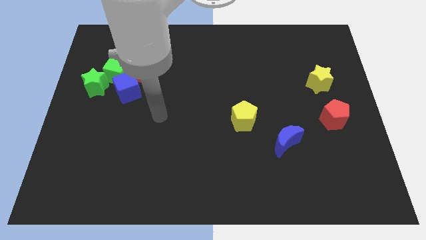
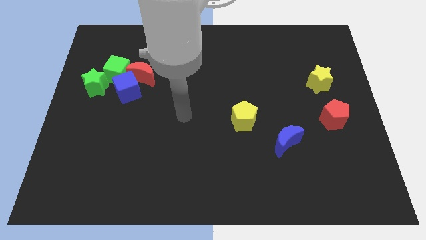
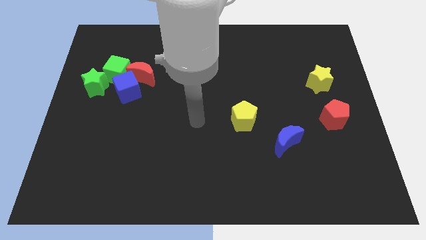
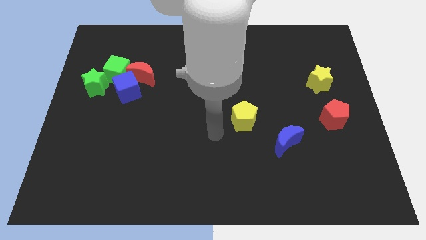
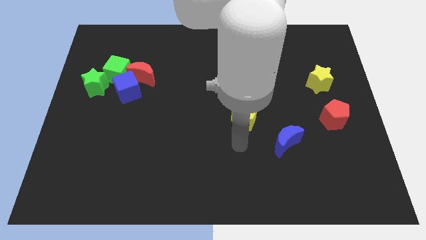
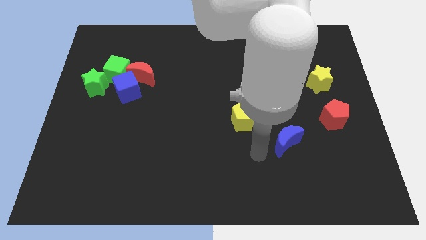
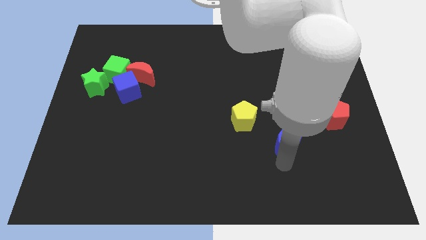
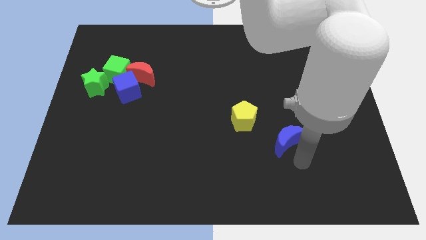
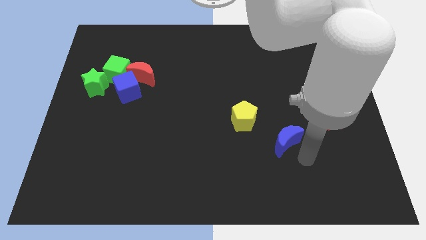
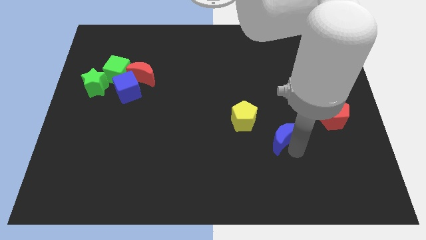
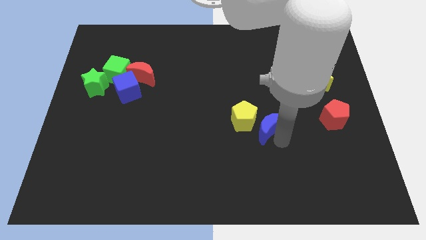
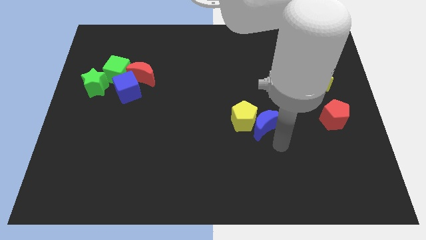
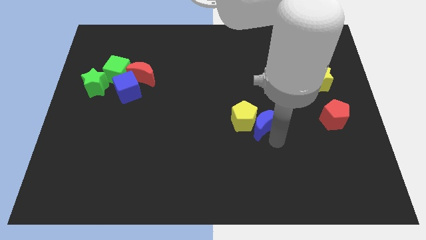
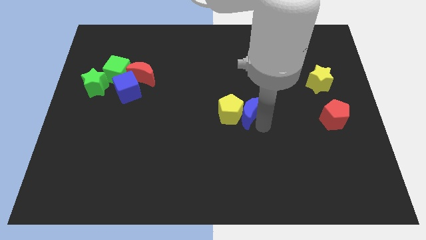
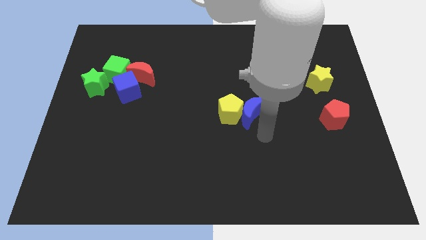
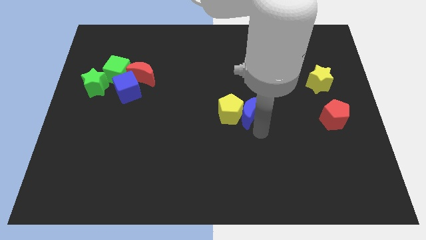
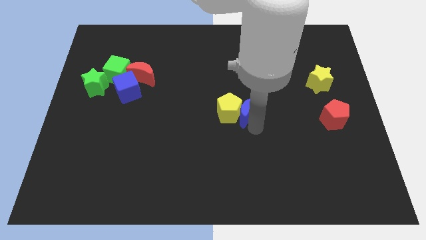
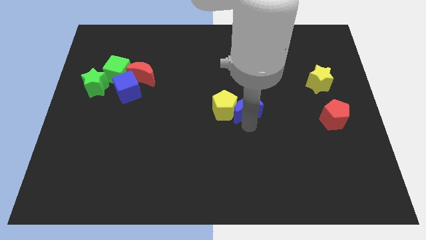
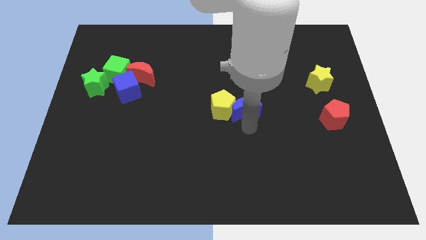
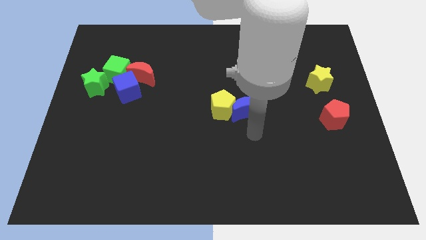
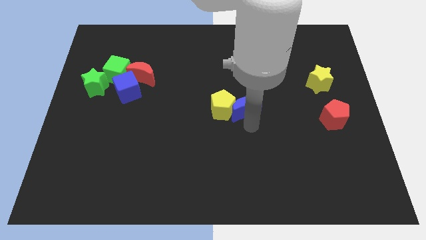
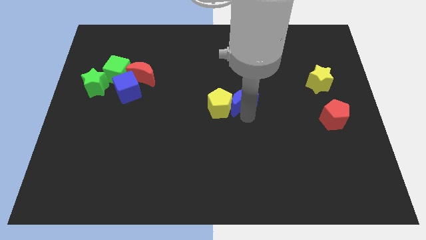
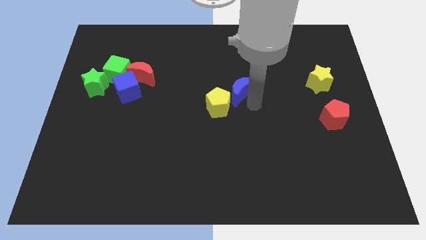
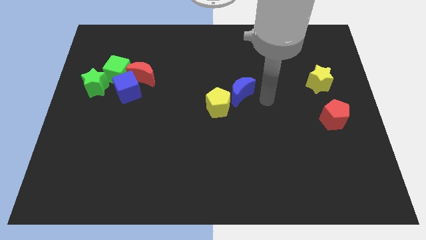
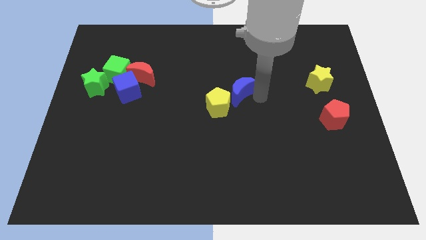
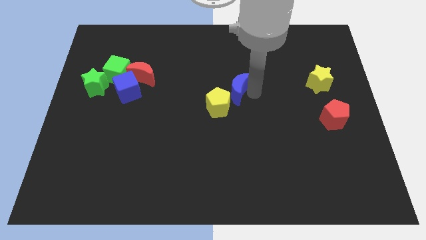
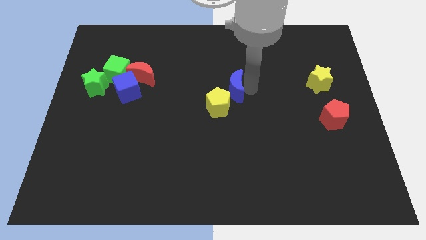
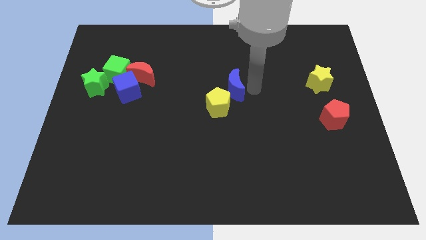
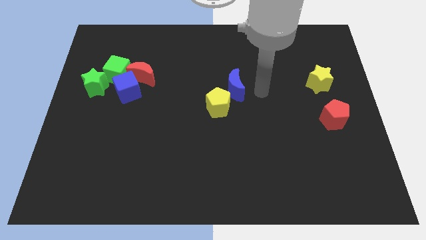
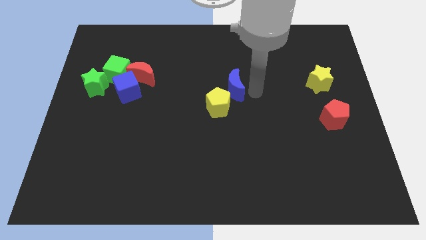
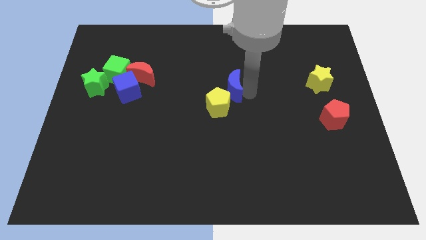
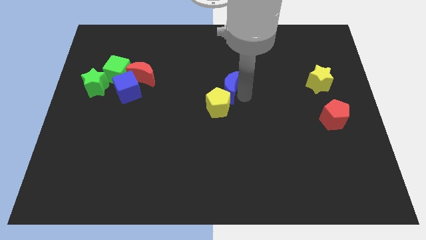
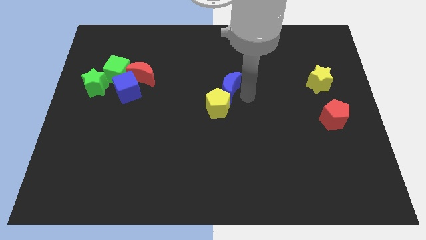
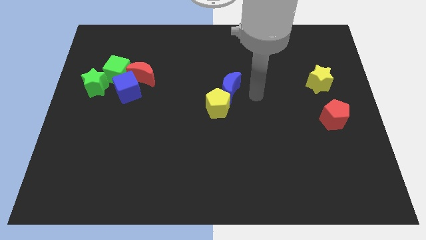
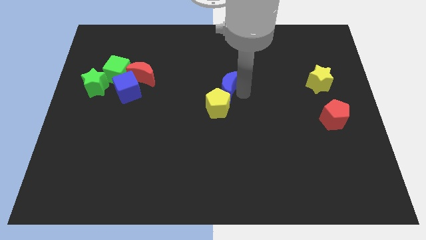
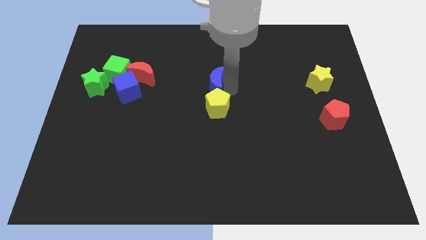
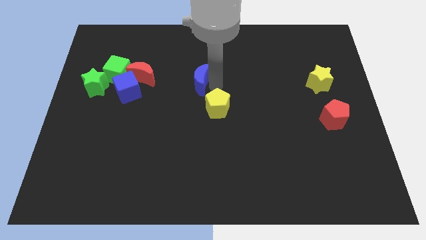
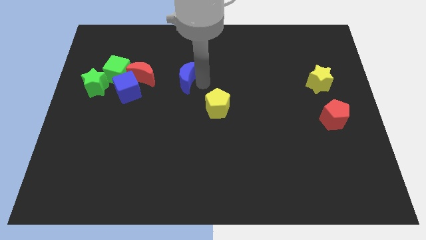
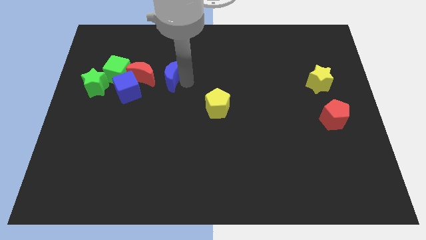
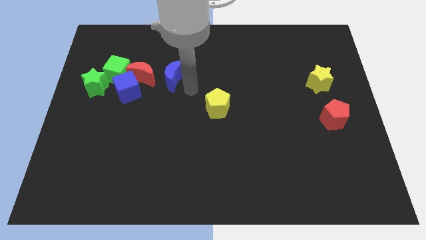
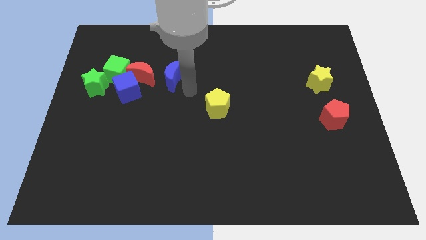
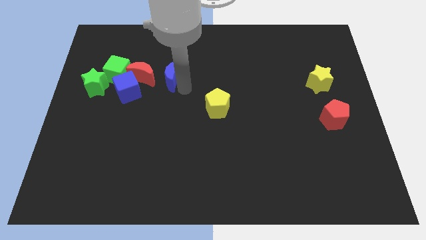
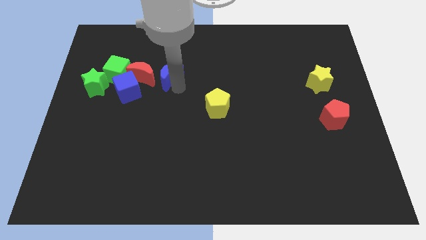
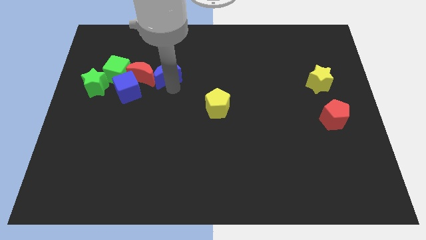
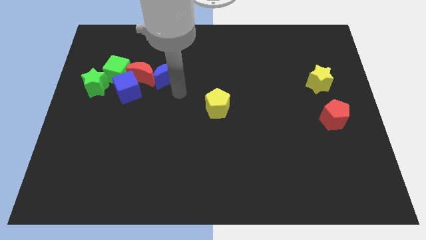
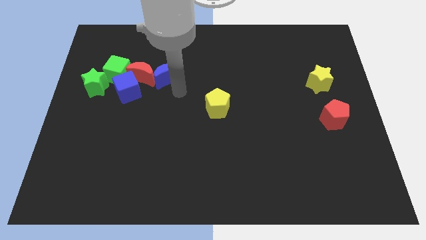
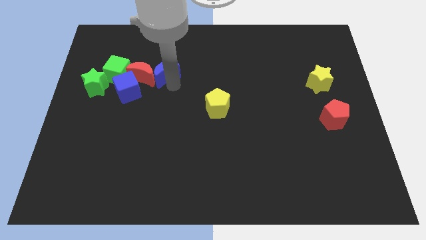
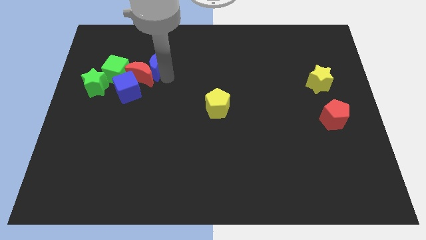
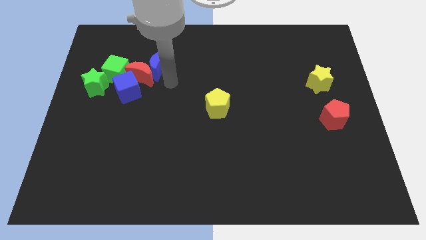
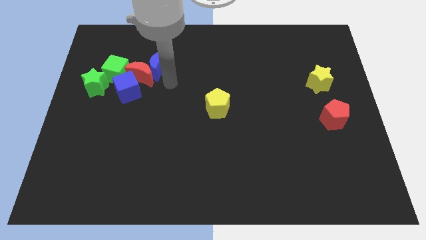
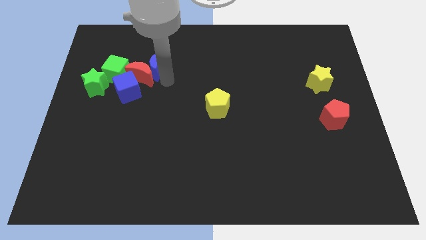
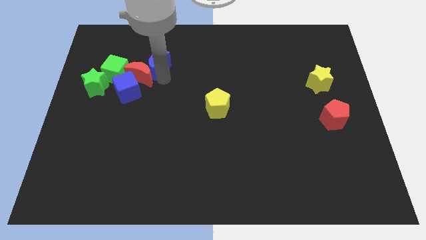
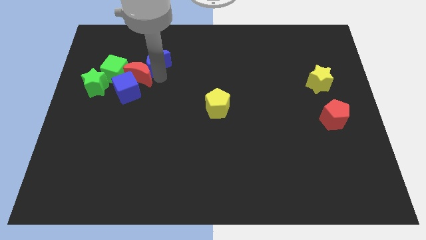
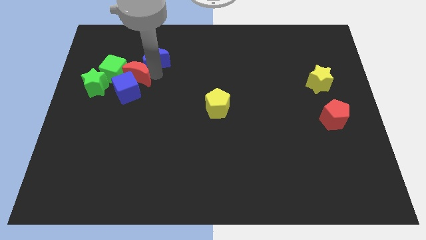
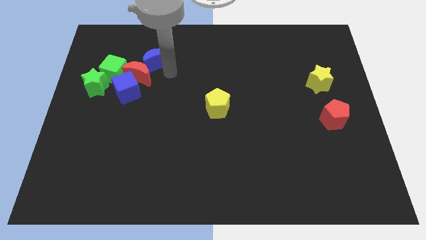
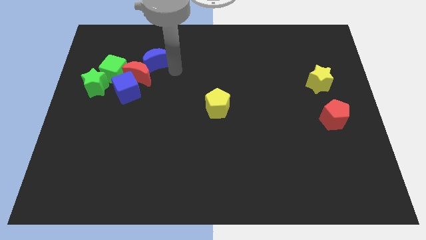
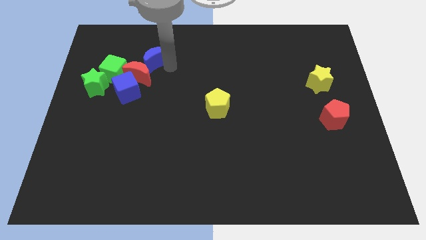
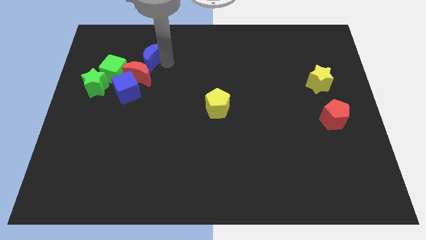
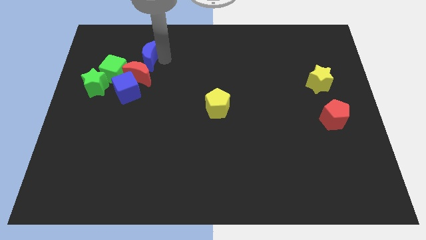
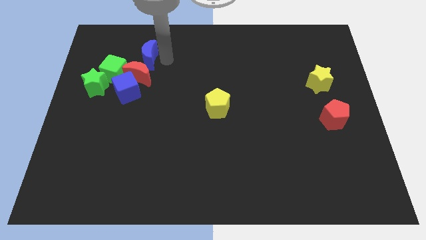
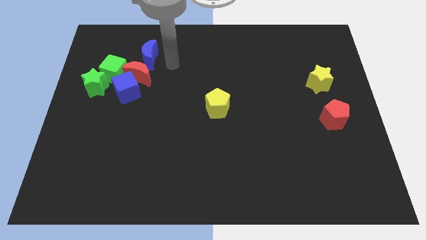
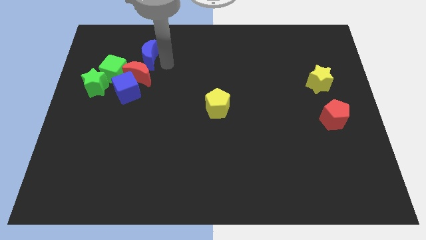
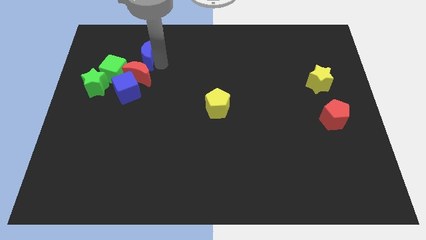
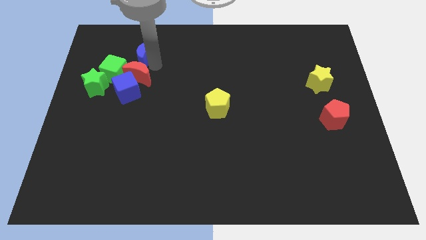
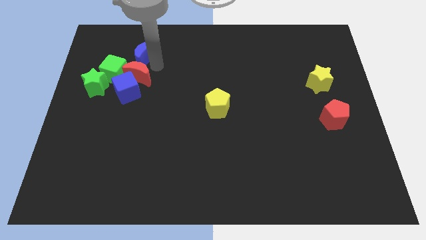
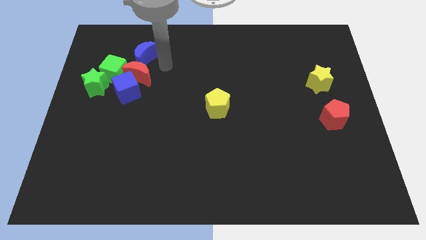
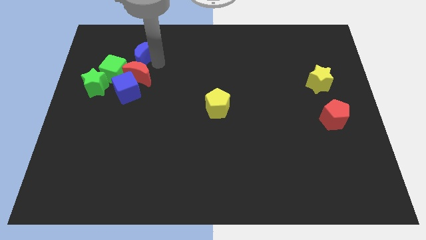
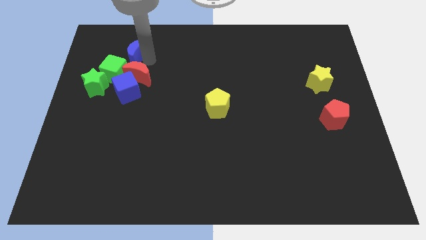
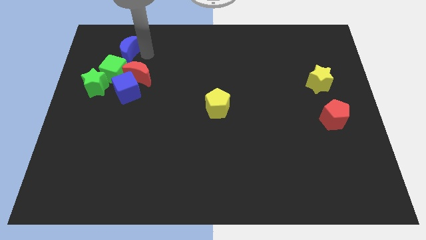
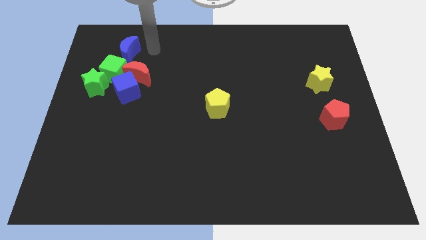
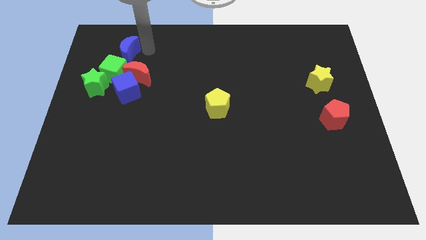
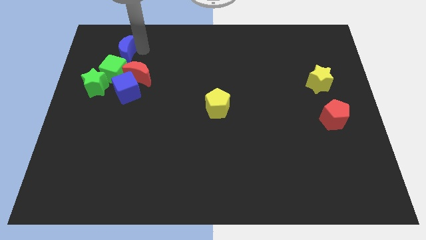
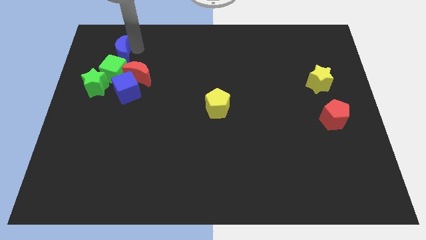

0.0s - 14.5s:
put the blue moon to the top of the green star
